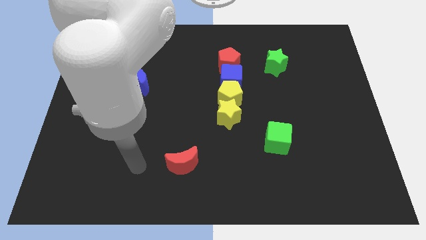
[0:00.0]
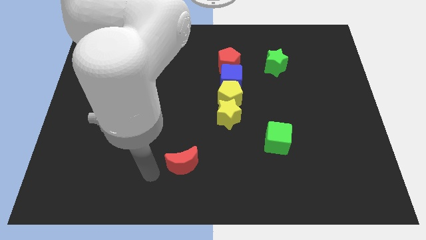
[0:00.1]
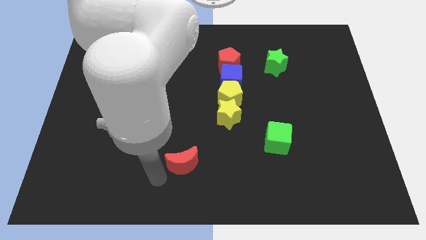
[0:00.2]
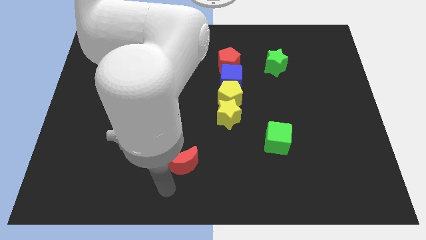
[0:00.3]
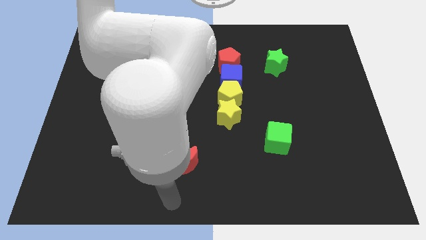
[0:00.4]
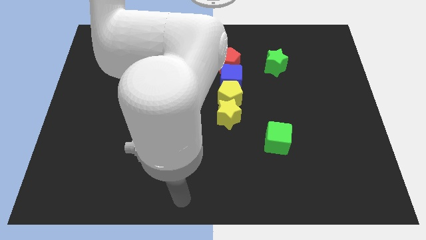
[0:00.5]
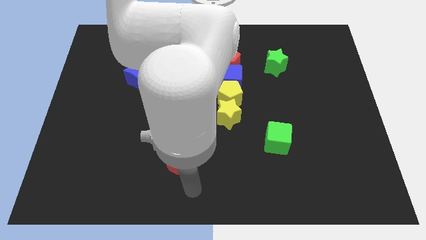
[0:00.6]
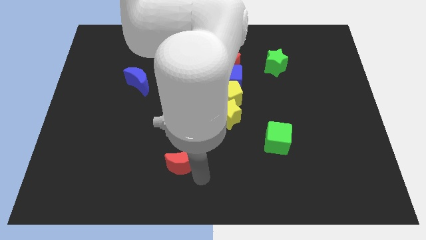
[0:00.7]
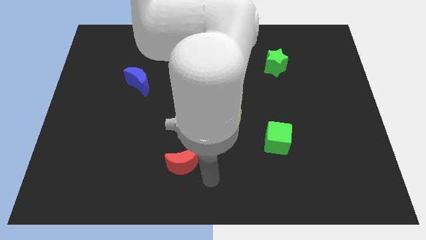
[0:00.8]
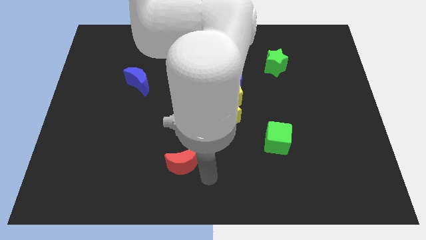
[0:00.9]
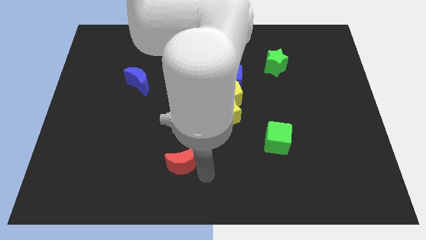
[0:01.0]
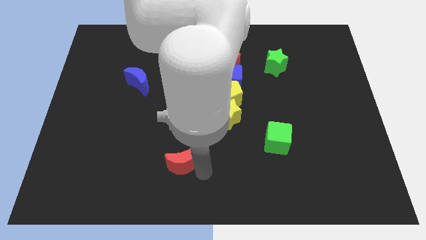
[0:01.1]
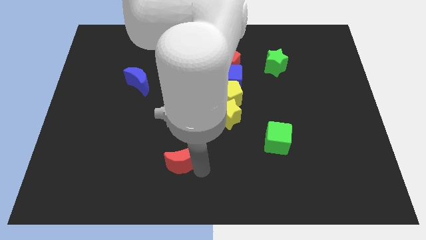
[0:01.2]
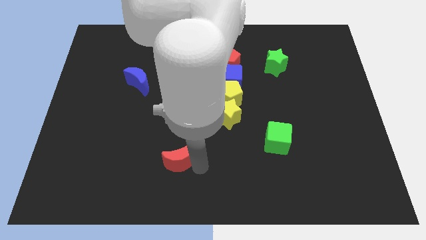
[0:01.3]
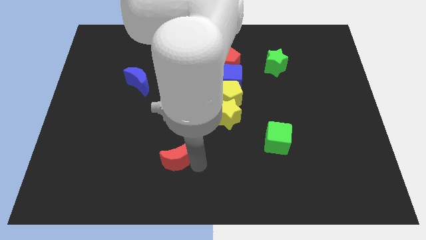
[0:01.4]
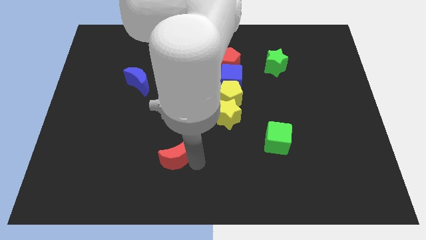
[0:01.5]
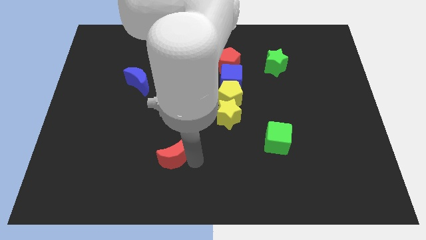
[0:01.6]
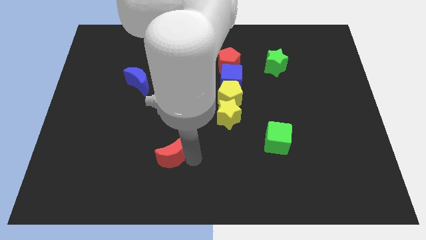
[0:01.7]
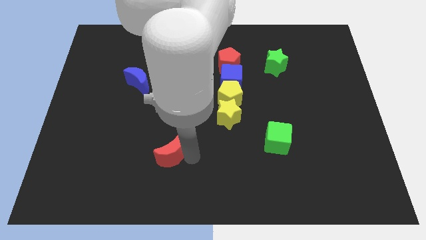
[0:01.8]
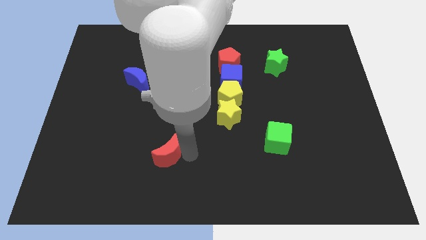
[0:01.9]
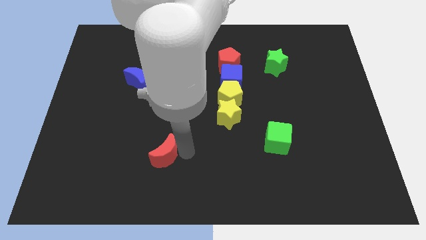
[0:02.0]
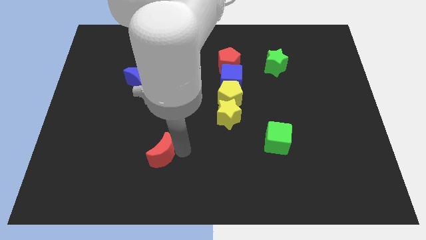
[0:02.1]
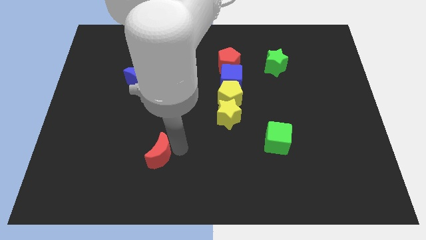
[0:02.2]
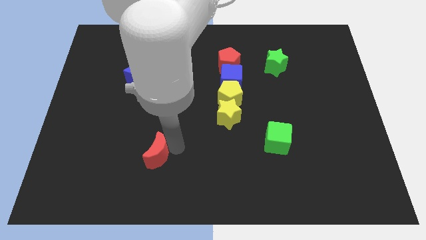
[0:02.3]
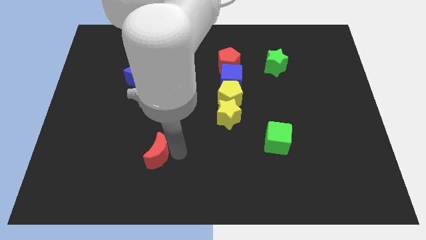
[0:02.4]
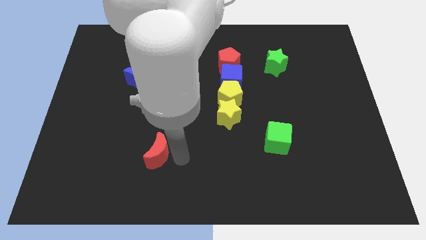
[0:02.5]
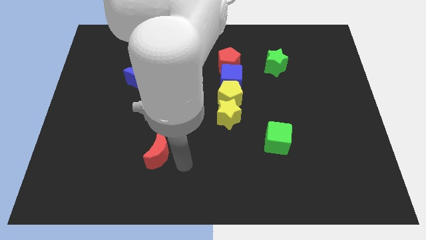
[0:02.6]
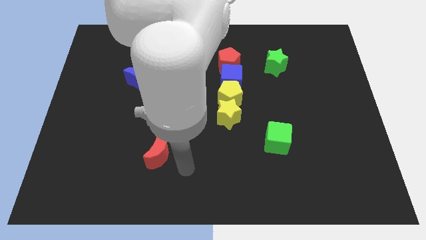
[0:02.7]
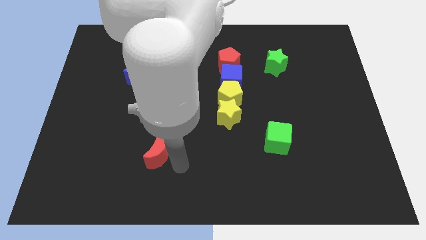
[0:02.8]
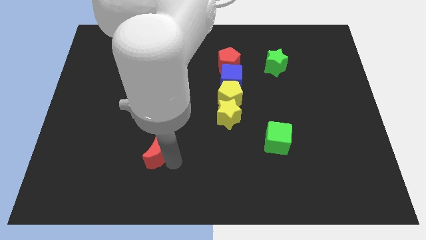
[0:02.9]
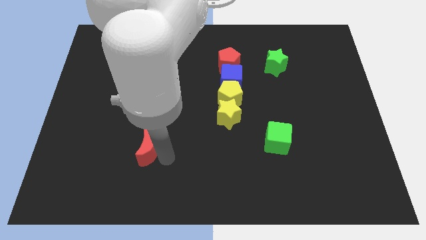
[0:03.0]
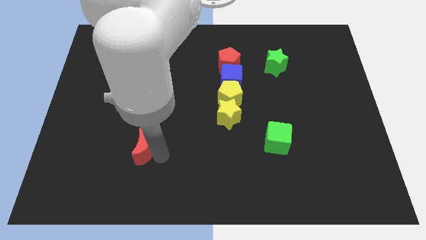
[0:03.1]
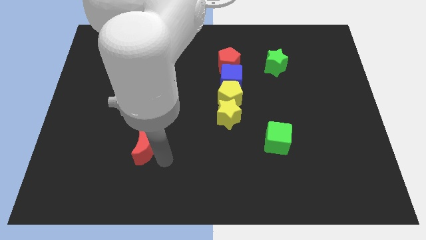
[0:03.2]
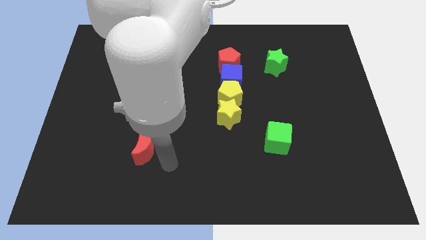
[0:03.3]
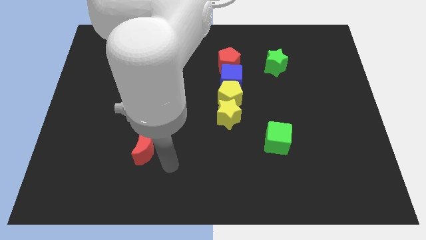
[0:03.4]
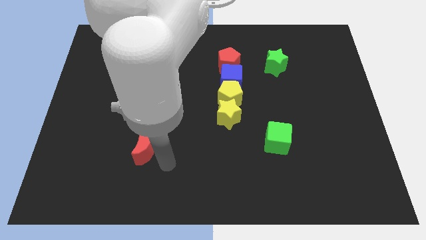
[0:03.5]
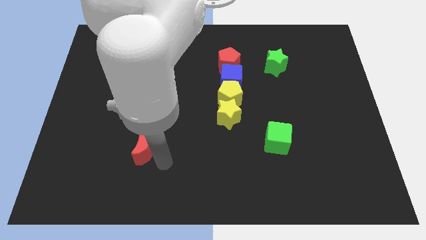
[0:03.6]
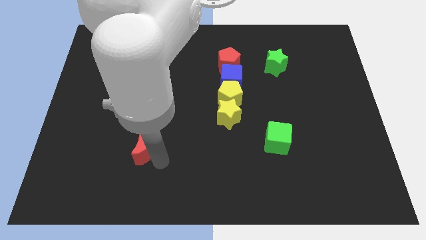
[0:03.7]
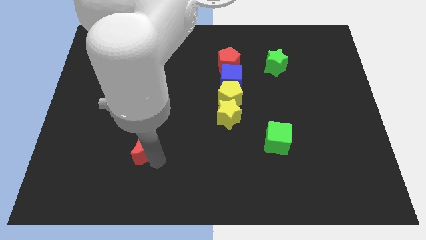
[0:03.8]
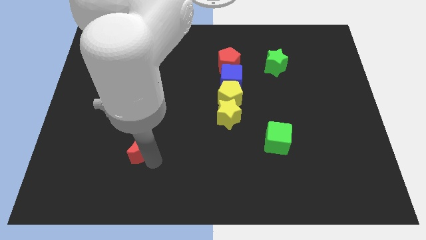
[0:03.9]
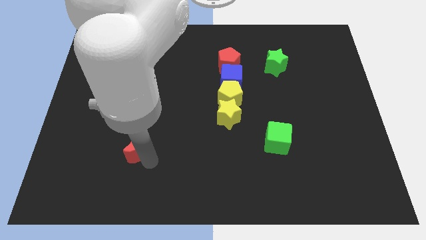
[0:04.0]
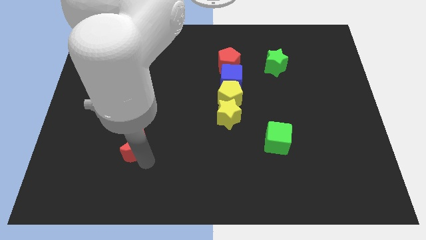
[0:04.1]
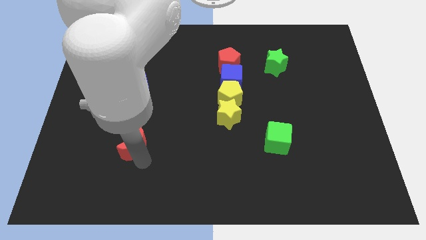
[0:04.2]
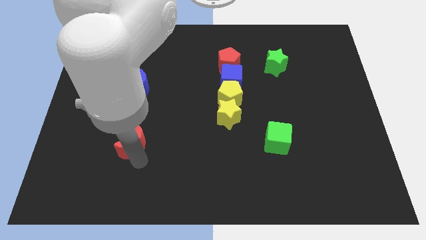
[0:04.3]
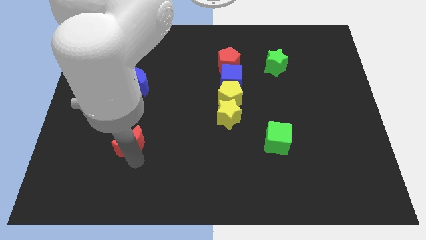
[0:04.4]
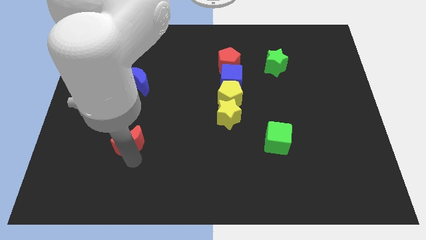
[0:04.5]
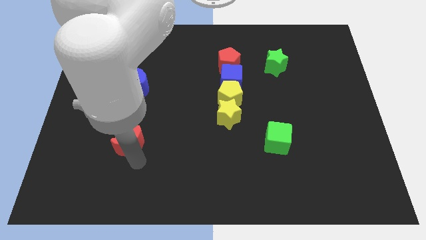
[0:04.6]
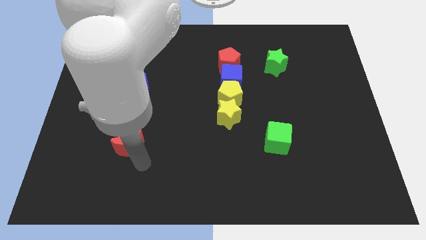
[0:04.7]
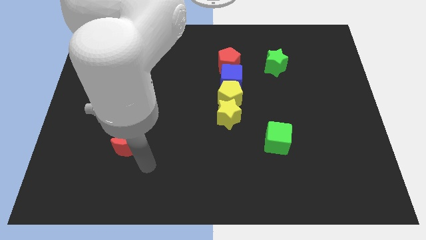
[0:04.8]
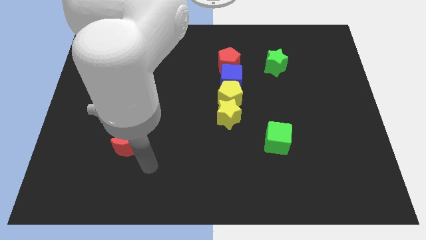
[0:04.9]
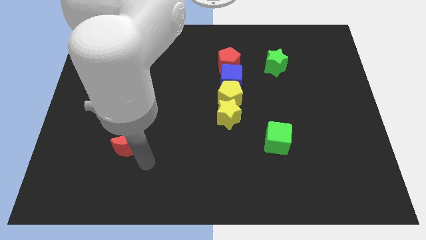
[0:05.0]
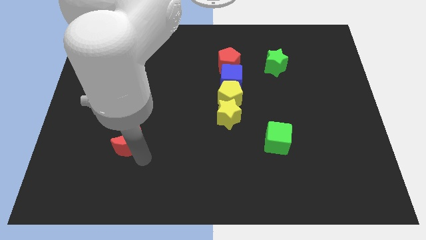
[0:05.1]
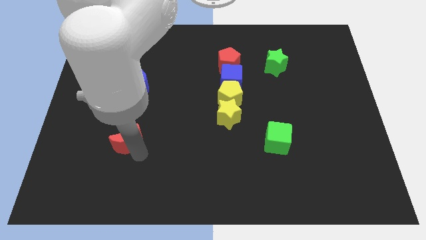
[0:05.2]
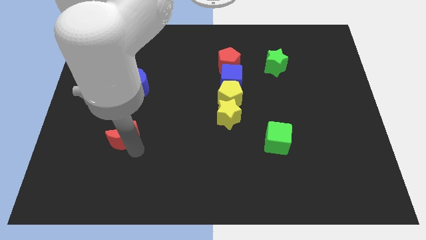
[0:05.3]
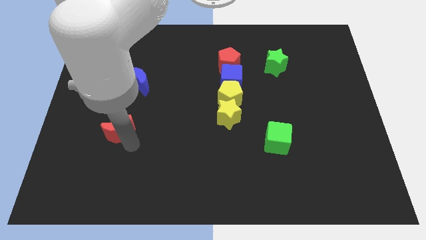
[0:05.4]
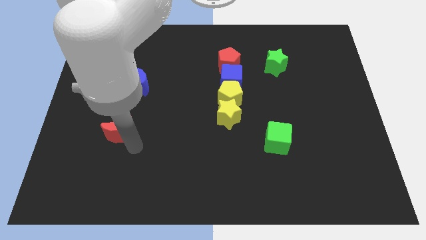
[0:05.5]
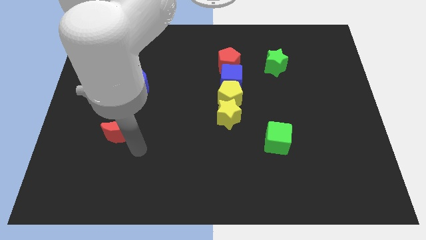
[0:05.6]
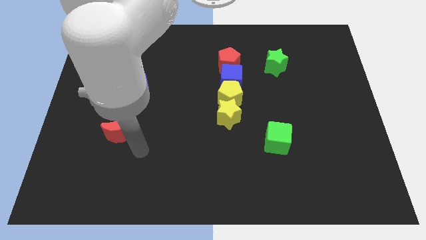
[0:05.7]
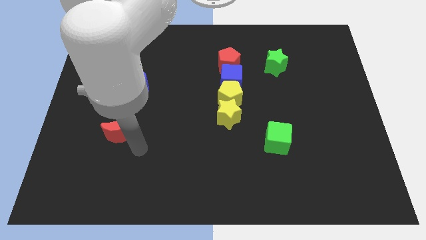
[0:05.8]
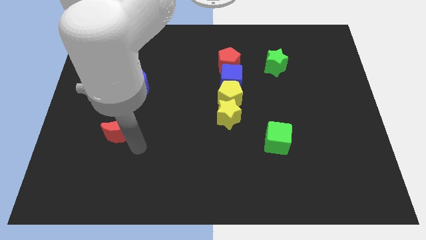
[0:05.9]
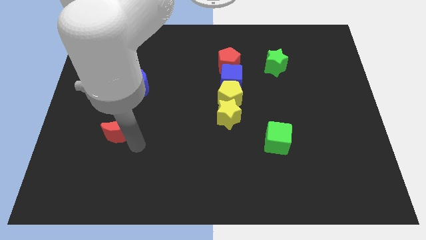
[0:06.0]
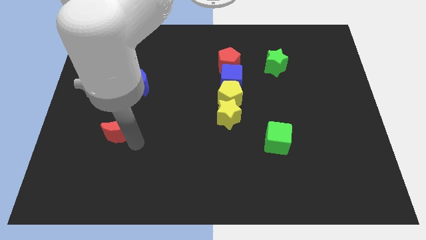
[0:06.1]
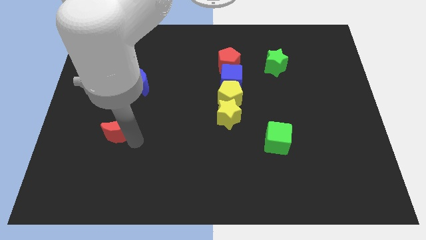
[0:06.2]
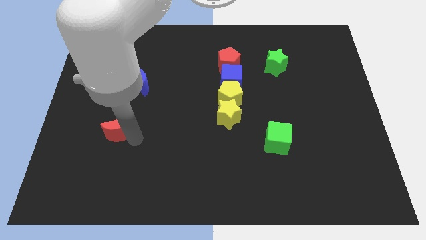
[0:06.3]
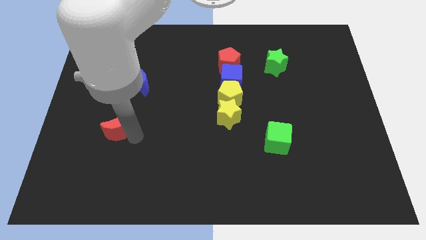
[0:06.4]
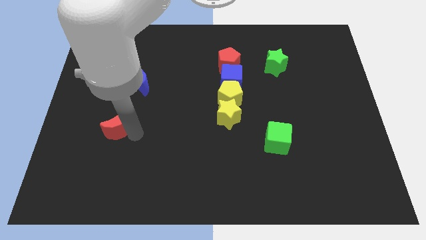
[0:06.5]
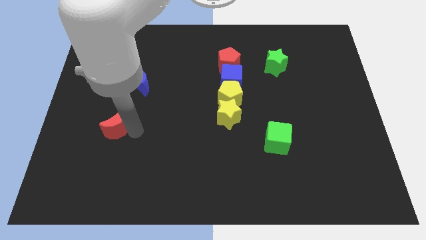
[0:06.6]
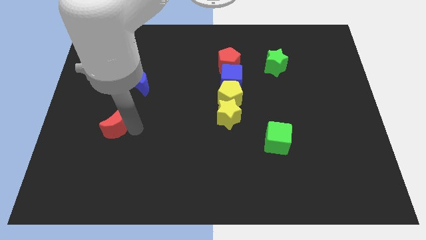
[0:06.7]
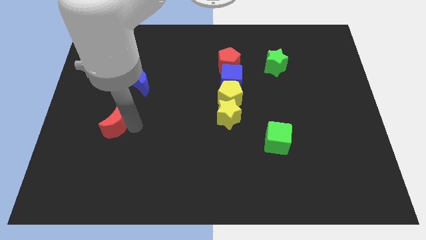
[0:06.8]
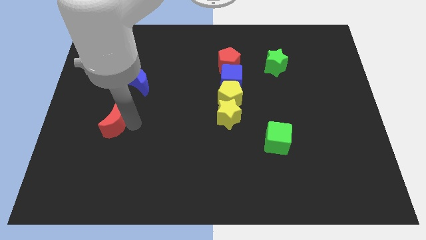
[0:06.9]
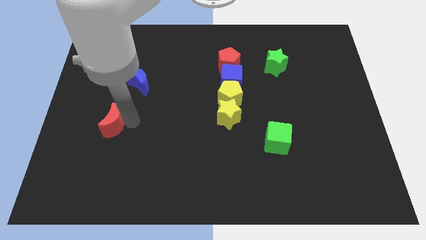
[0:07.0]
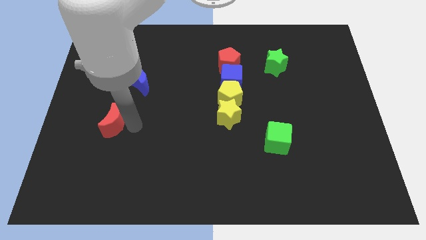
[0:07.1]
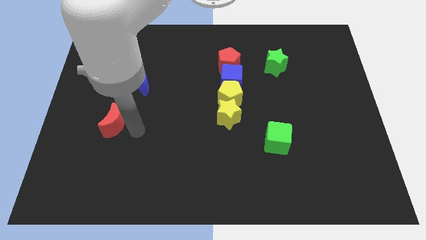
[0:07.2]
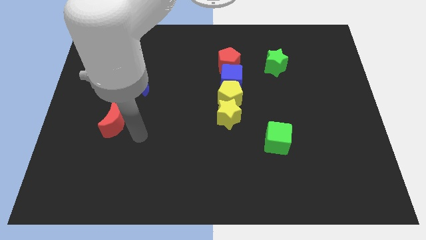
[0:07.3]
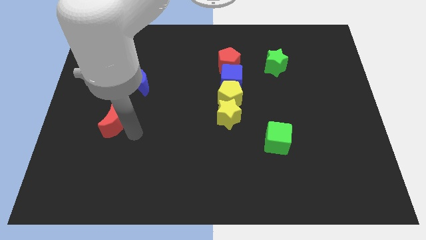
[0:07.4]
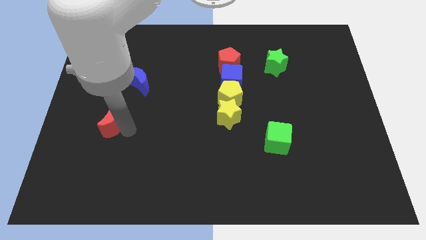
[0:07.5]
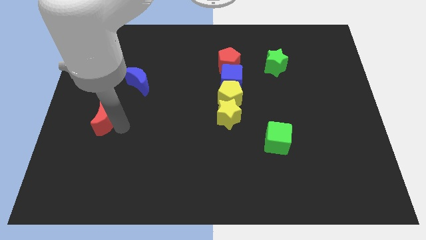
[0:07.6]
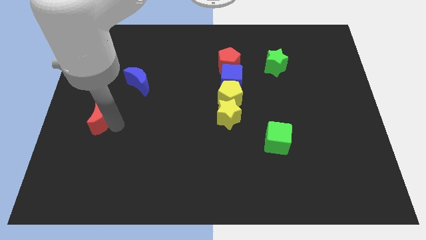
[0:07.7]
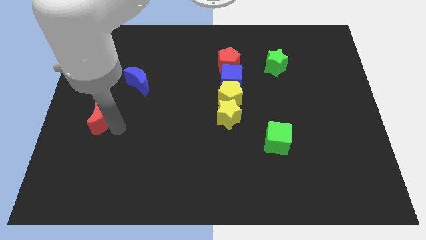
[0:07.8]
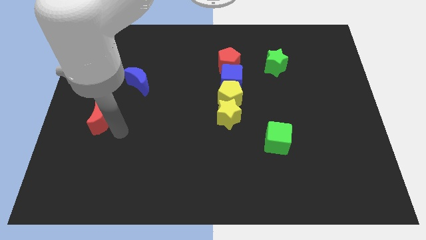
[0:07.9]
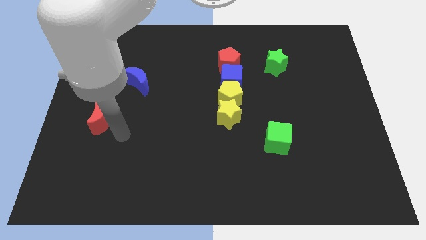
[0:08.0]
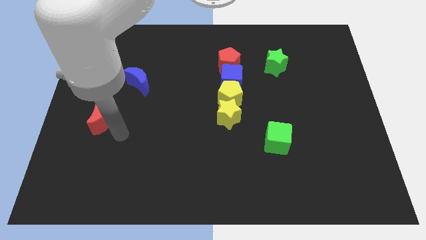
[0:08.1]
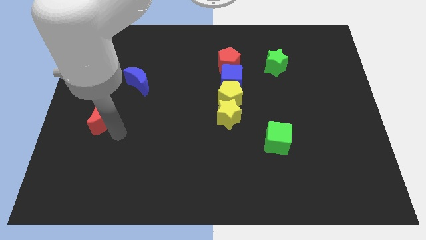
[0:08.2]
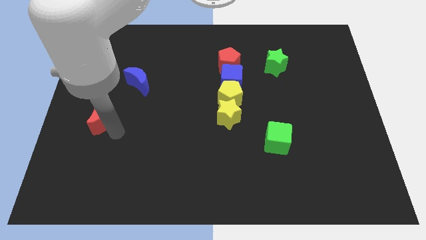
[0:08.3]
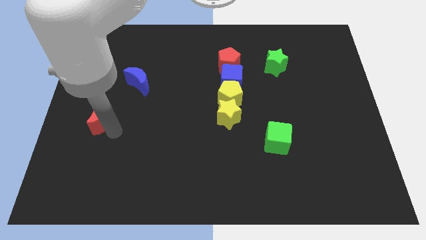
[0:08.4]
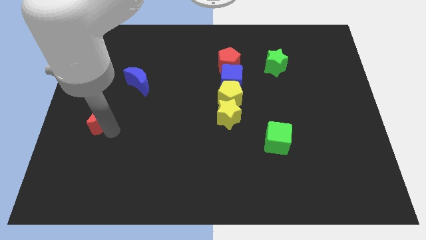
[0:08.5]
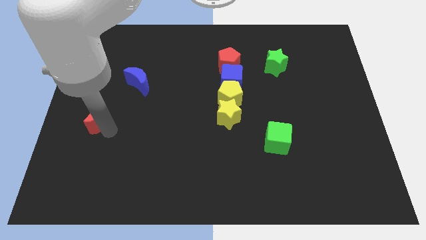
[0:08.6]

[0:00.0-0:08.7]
move the red moon to the left side
